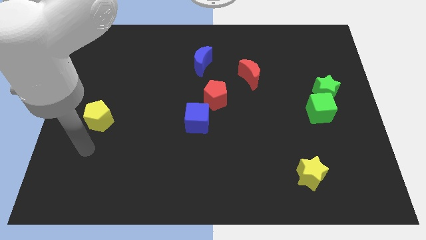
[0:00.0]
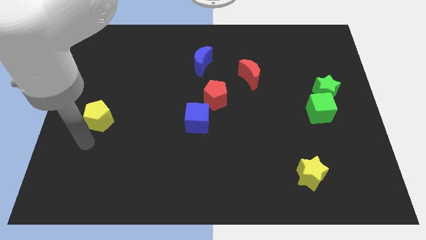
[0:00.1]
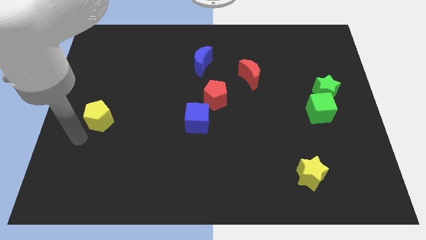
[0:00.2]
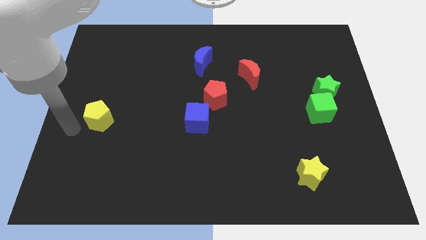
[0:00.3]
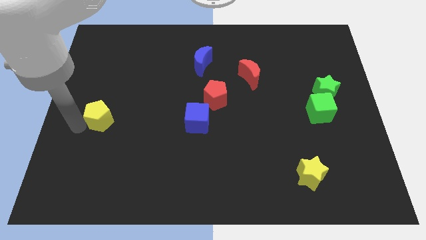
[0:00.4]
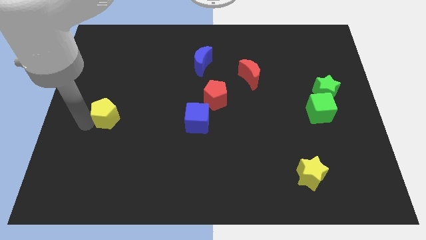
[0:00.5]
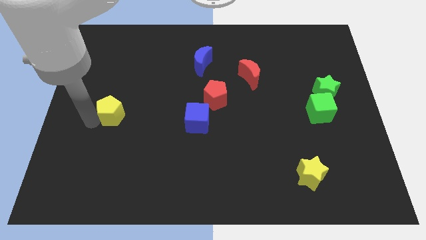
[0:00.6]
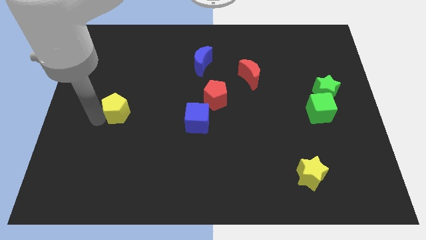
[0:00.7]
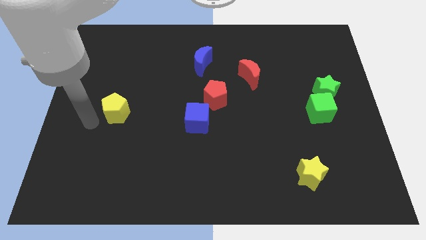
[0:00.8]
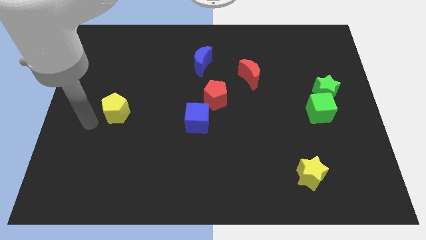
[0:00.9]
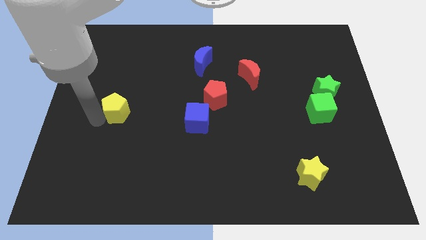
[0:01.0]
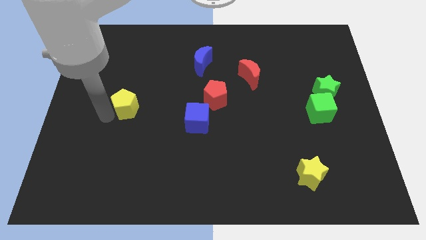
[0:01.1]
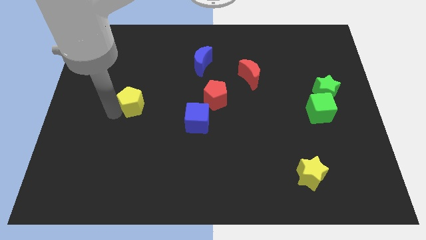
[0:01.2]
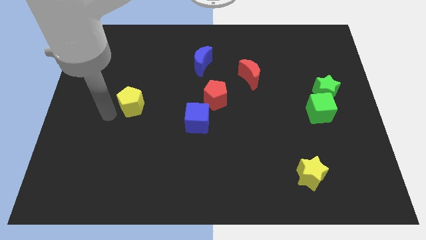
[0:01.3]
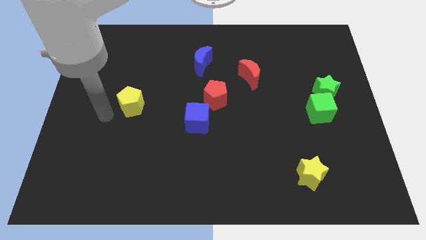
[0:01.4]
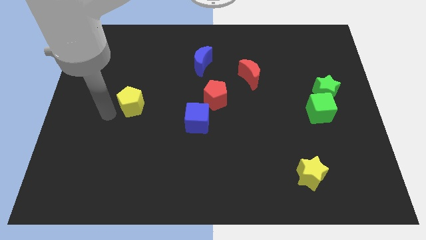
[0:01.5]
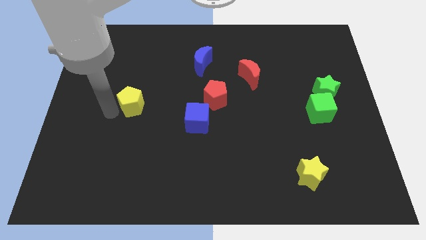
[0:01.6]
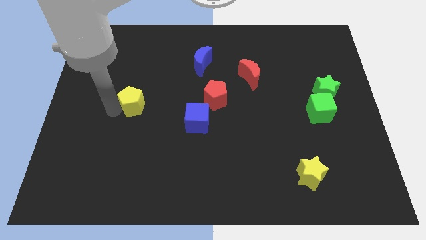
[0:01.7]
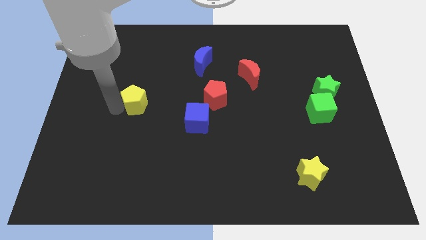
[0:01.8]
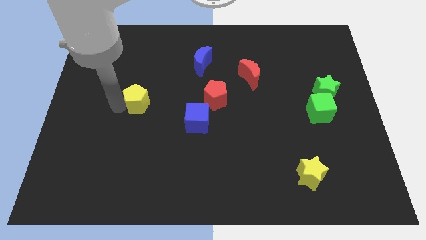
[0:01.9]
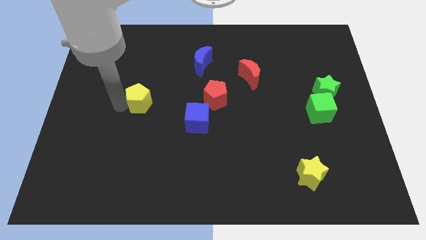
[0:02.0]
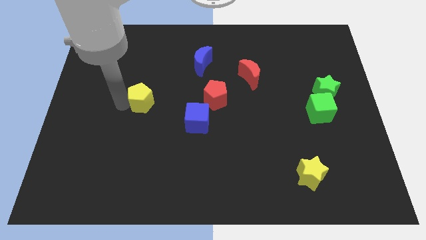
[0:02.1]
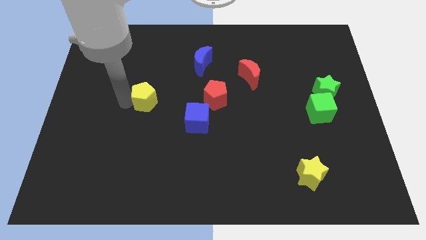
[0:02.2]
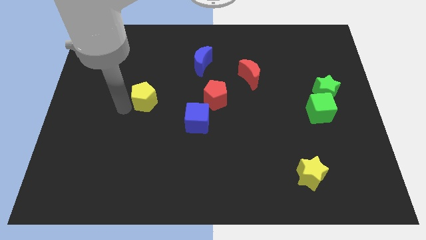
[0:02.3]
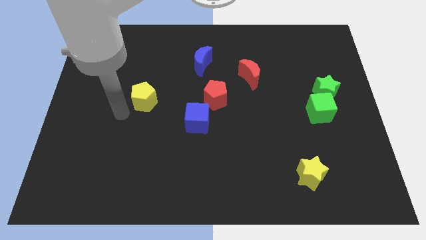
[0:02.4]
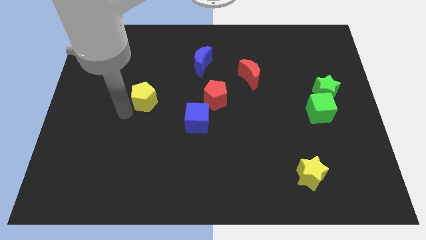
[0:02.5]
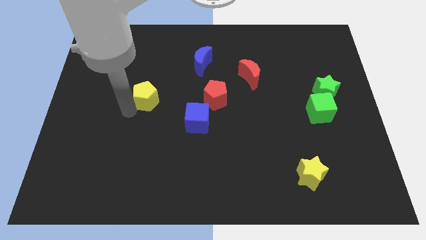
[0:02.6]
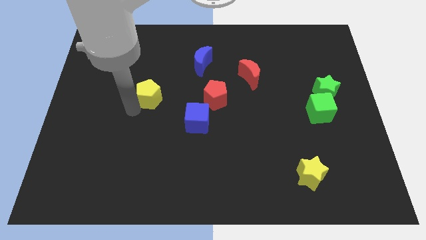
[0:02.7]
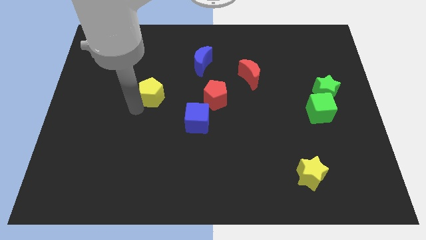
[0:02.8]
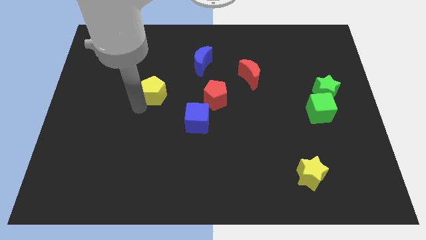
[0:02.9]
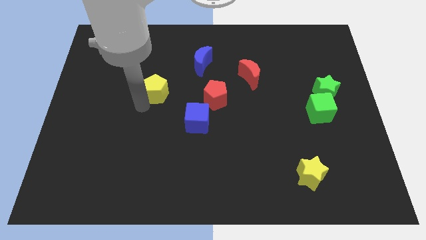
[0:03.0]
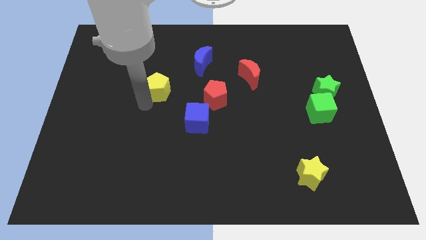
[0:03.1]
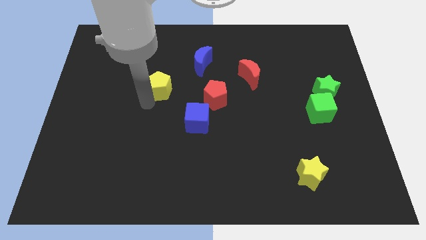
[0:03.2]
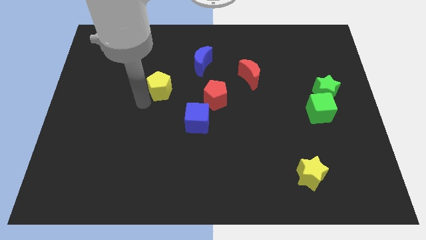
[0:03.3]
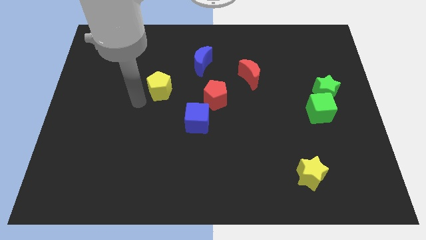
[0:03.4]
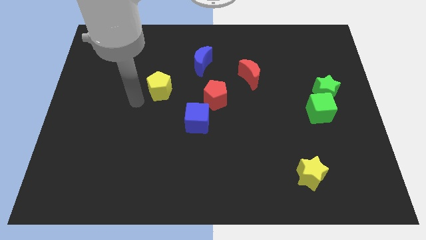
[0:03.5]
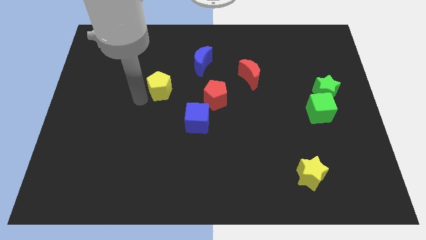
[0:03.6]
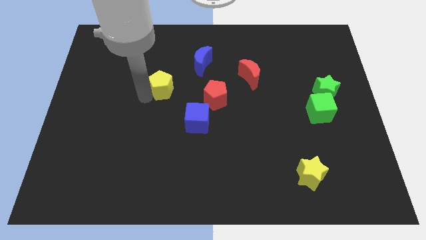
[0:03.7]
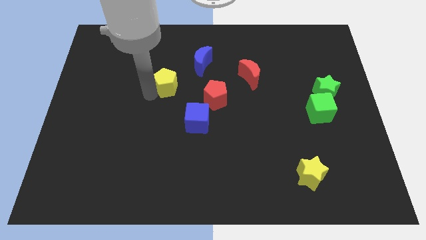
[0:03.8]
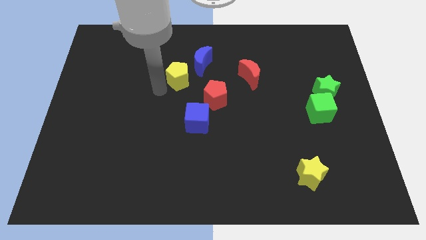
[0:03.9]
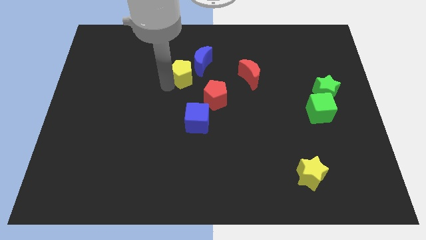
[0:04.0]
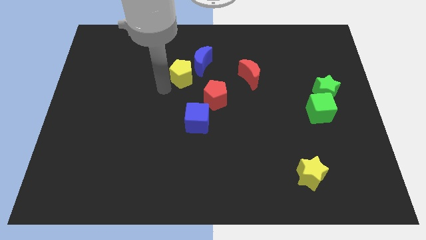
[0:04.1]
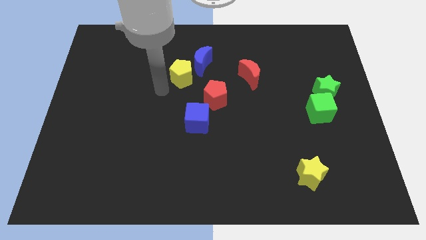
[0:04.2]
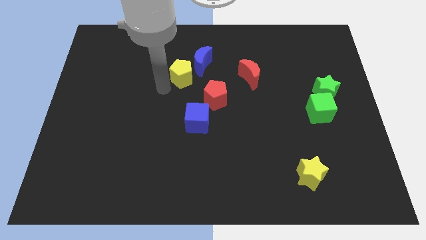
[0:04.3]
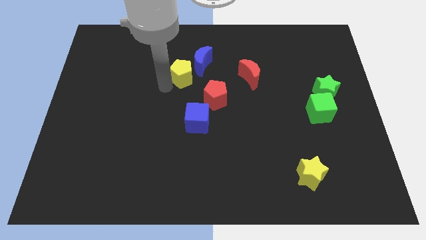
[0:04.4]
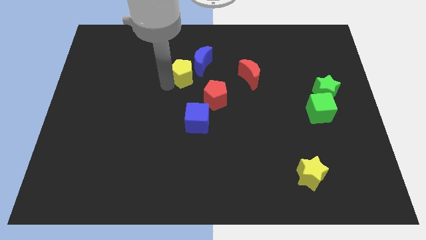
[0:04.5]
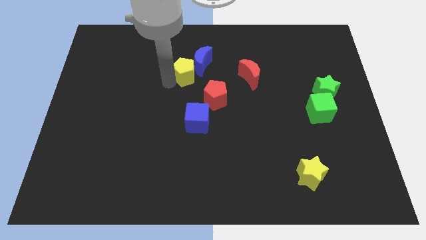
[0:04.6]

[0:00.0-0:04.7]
put the yellow pentagon next to the blue moon

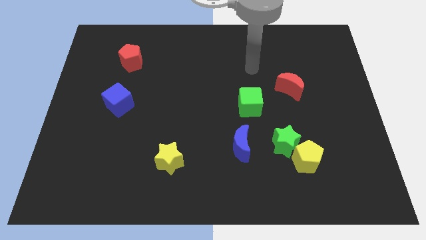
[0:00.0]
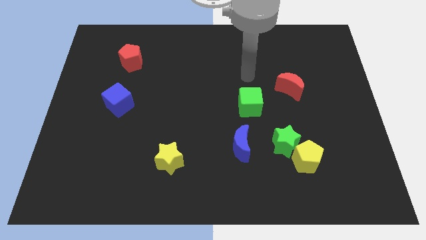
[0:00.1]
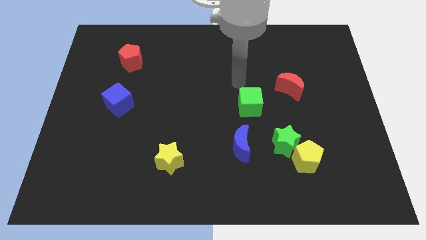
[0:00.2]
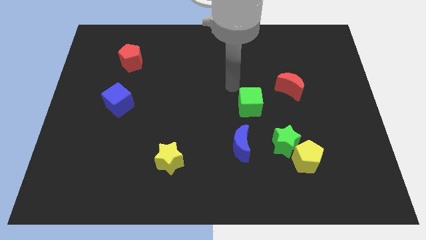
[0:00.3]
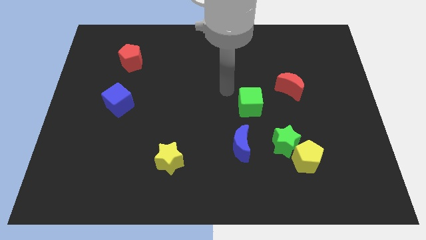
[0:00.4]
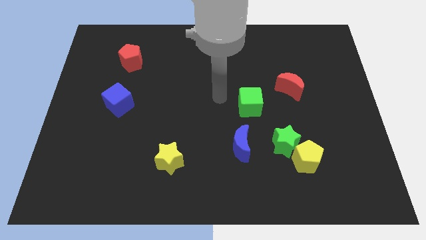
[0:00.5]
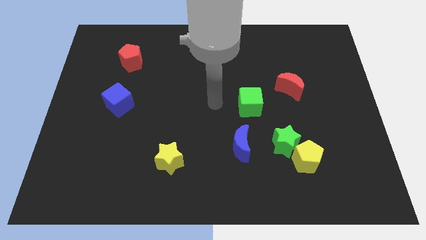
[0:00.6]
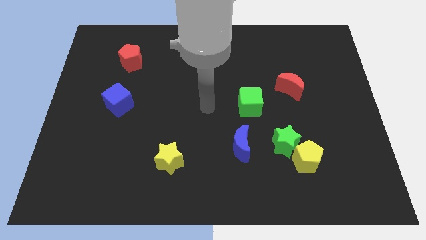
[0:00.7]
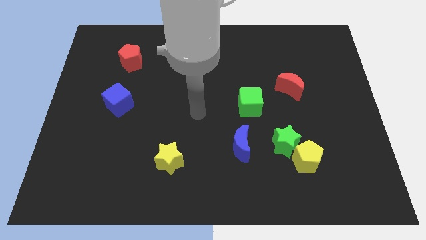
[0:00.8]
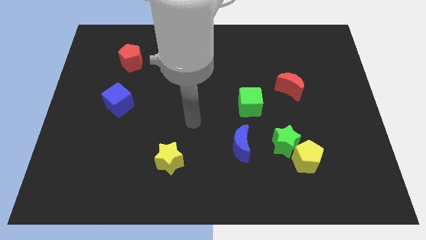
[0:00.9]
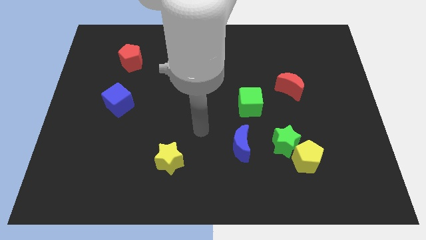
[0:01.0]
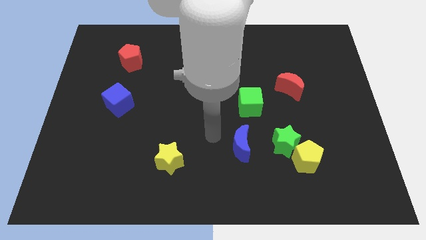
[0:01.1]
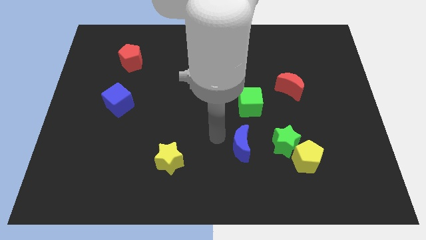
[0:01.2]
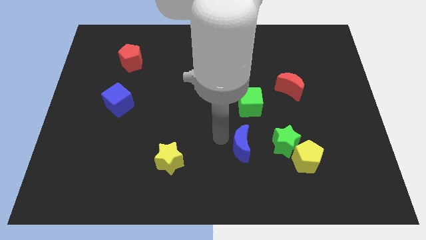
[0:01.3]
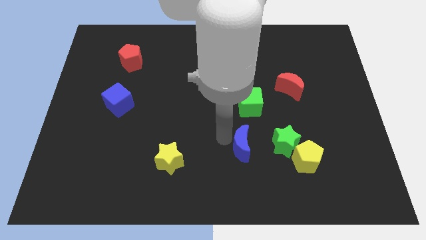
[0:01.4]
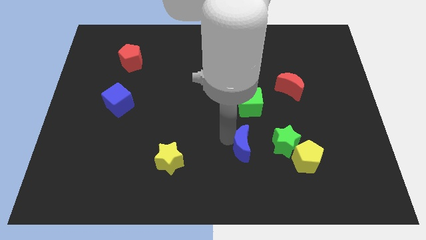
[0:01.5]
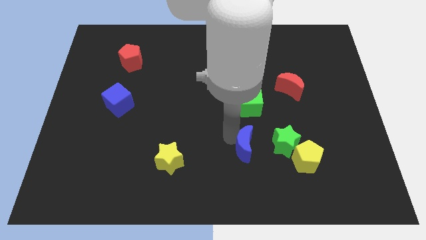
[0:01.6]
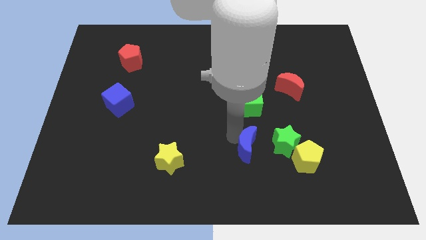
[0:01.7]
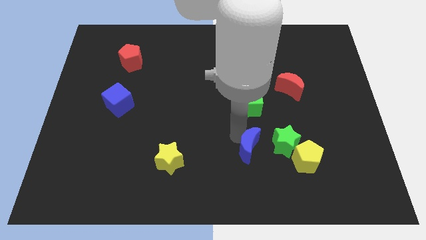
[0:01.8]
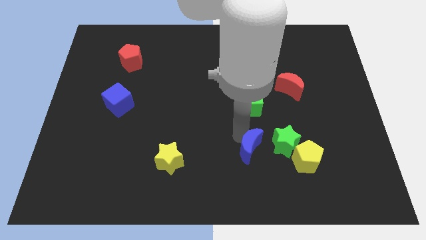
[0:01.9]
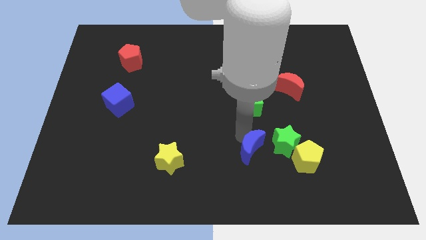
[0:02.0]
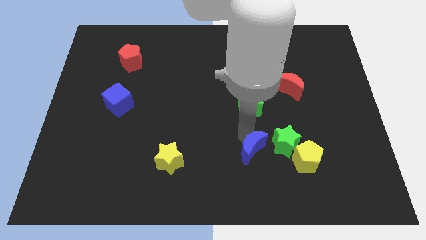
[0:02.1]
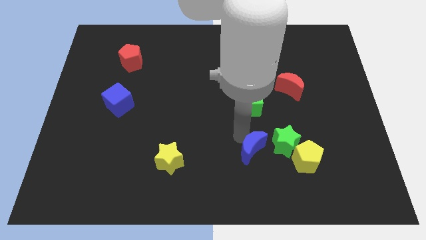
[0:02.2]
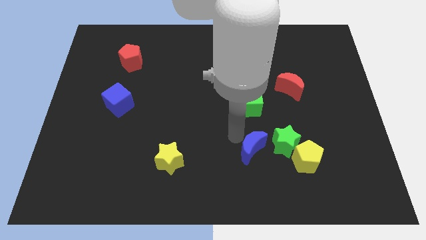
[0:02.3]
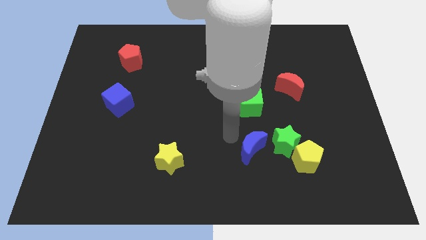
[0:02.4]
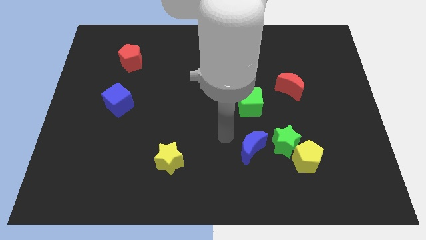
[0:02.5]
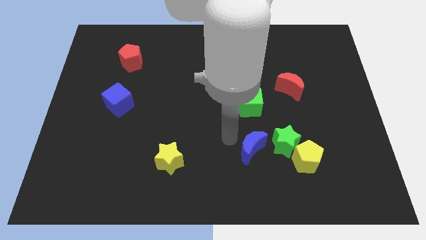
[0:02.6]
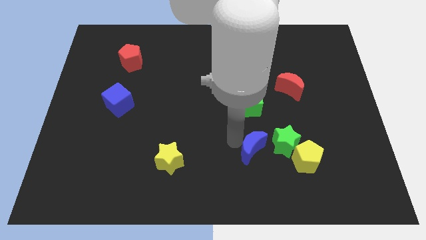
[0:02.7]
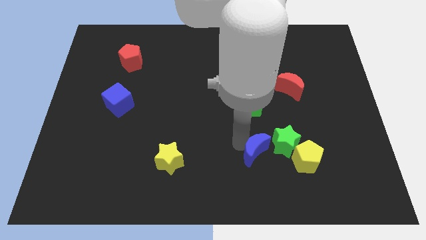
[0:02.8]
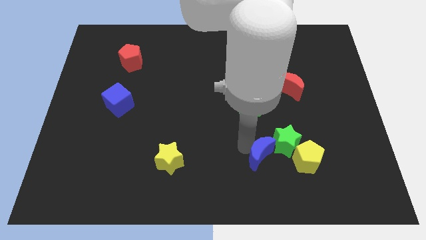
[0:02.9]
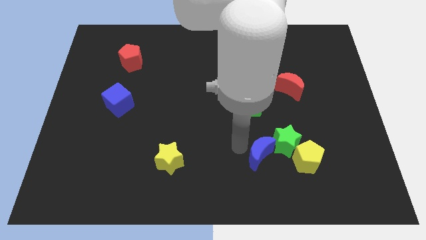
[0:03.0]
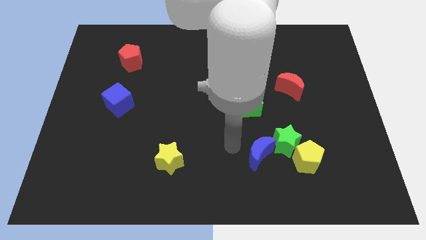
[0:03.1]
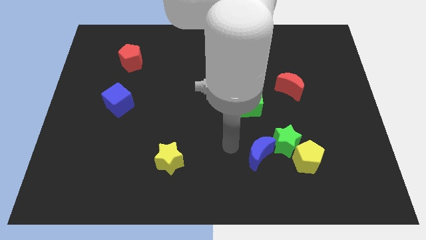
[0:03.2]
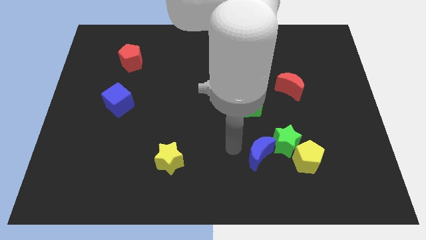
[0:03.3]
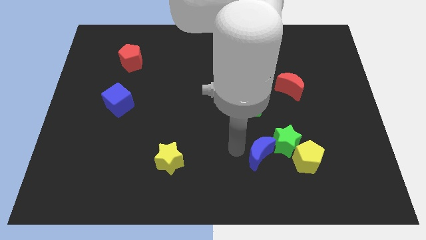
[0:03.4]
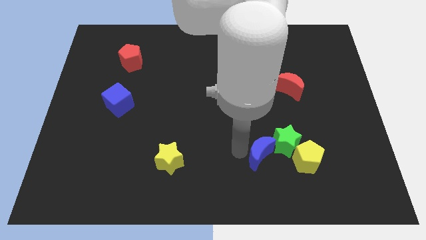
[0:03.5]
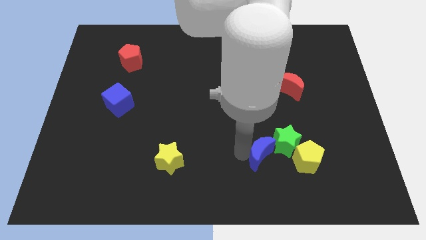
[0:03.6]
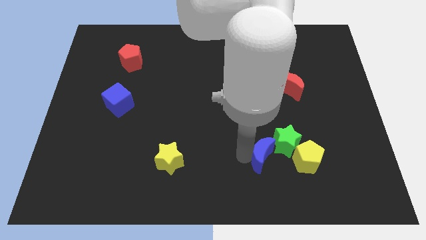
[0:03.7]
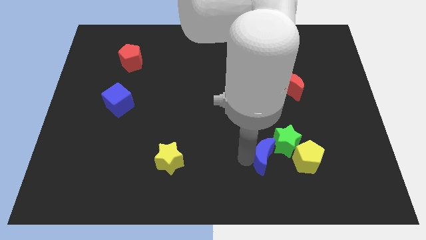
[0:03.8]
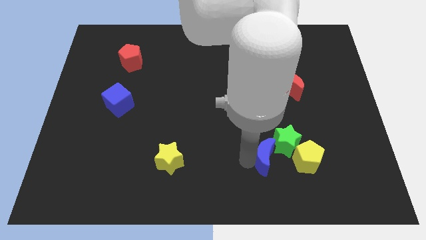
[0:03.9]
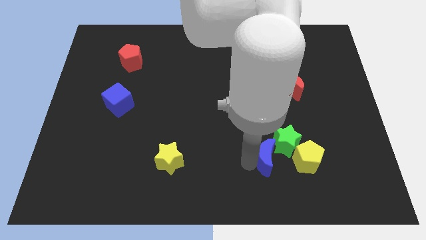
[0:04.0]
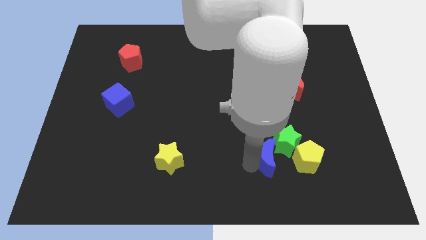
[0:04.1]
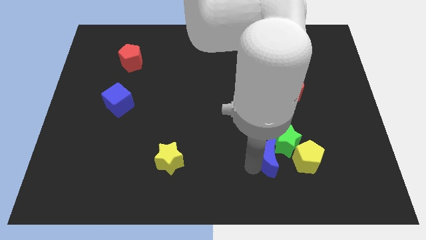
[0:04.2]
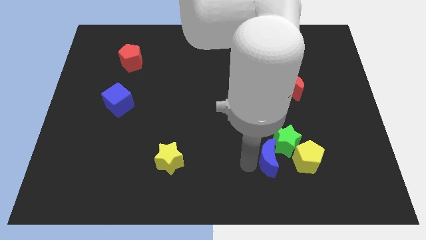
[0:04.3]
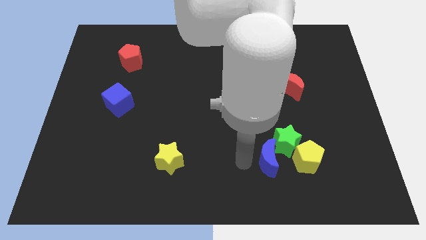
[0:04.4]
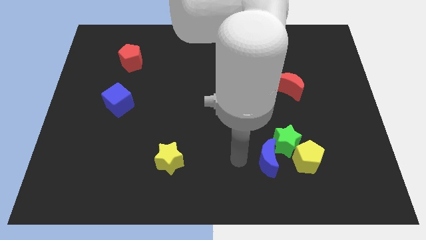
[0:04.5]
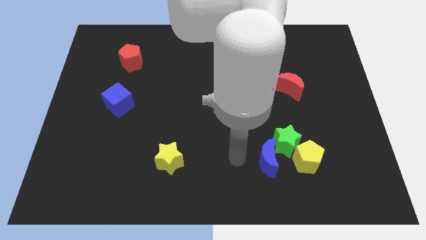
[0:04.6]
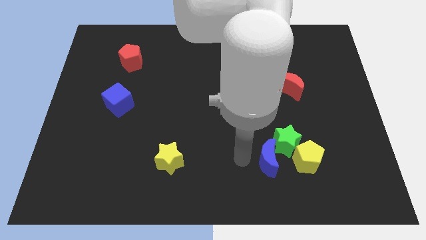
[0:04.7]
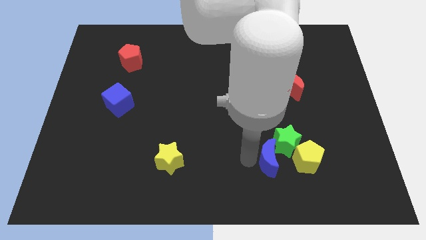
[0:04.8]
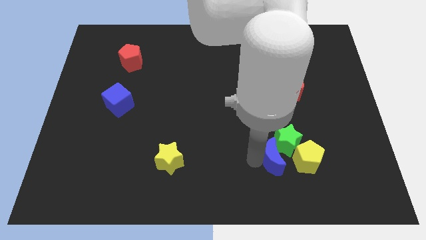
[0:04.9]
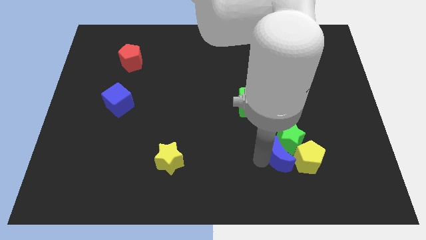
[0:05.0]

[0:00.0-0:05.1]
push the blue moon to the yellow pentagon
